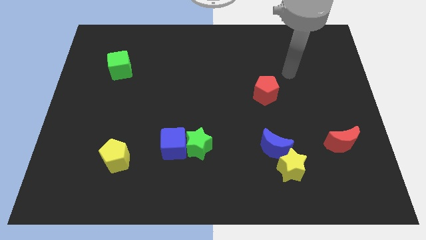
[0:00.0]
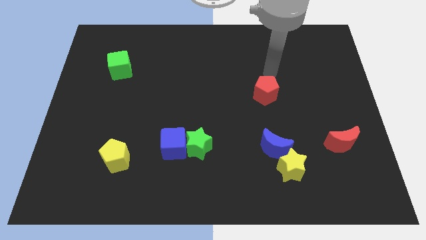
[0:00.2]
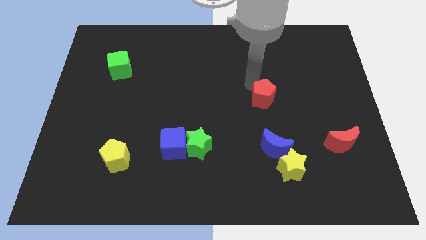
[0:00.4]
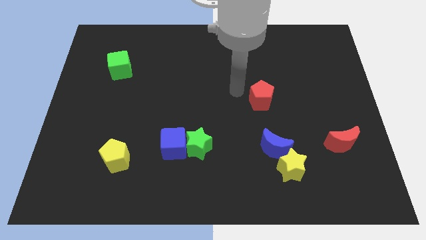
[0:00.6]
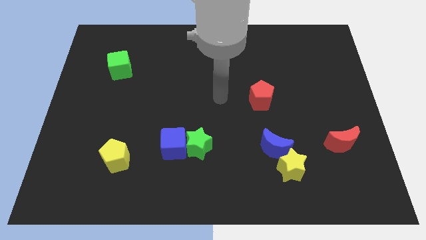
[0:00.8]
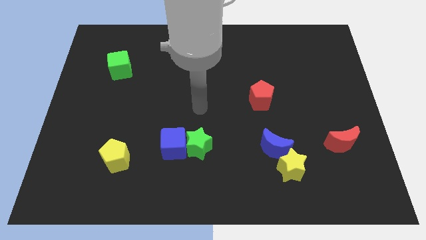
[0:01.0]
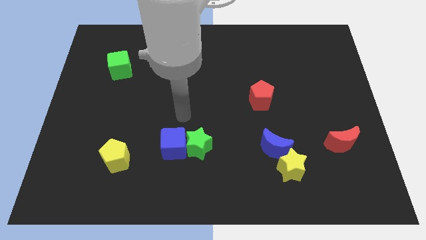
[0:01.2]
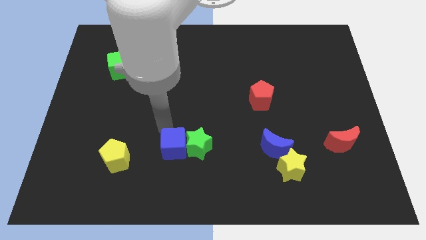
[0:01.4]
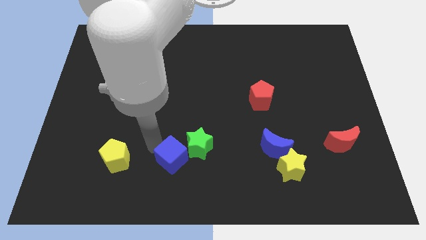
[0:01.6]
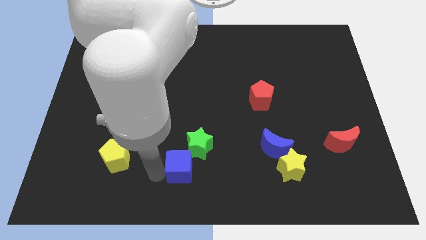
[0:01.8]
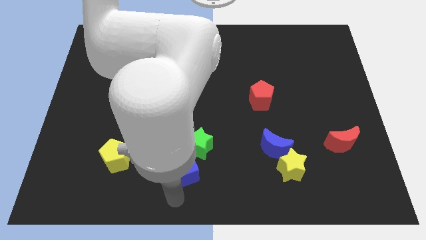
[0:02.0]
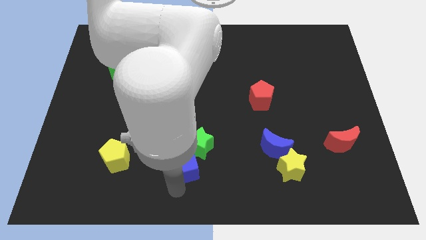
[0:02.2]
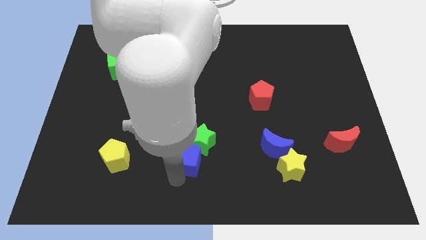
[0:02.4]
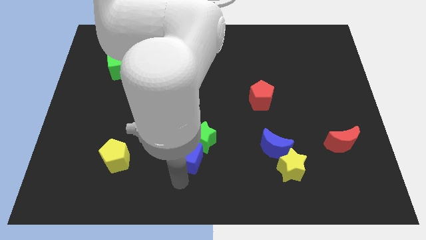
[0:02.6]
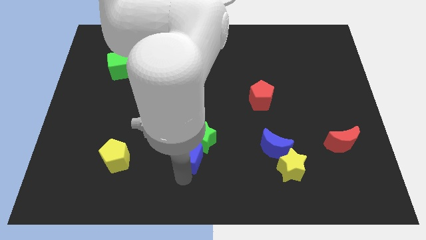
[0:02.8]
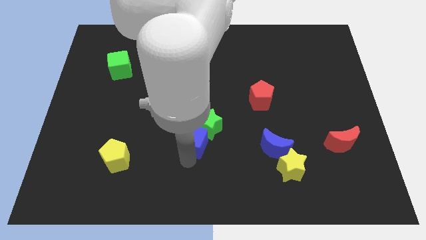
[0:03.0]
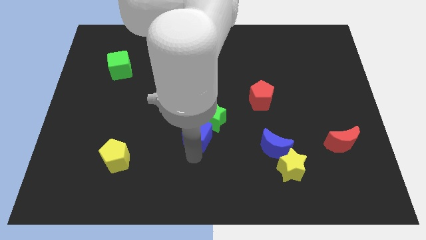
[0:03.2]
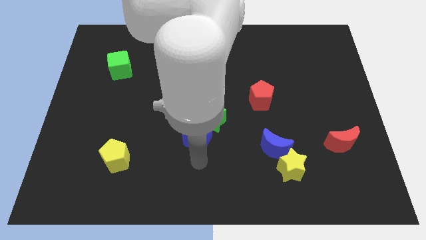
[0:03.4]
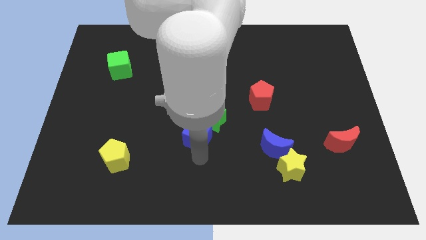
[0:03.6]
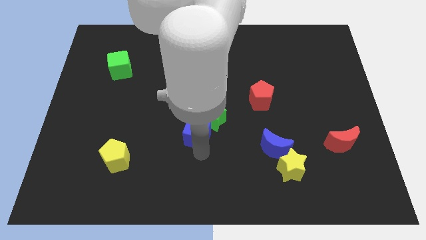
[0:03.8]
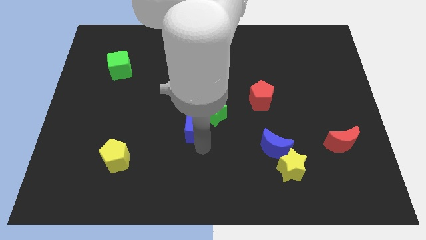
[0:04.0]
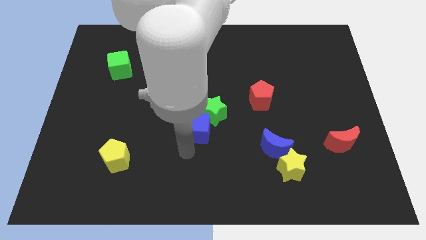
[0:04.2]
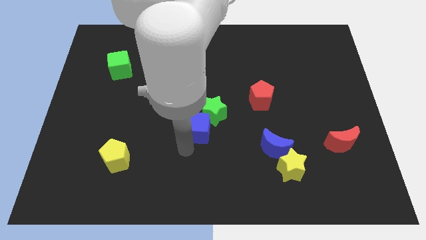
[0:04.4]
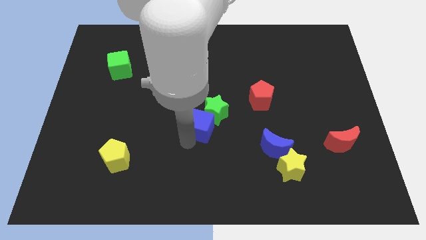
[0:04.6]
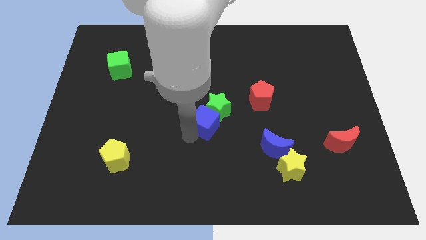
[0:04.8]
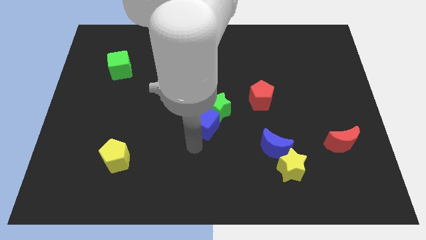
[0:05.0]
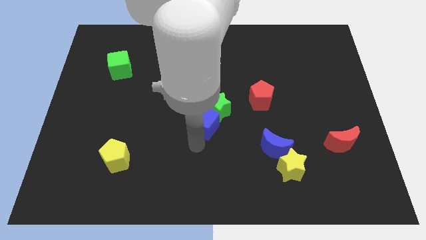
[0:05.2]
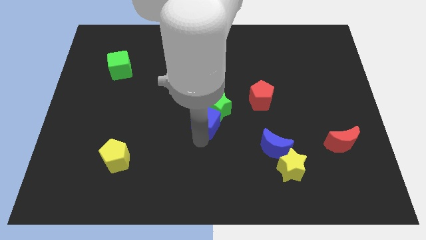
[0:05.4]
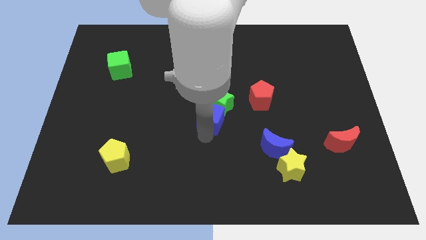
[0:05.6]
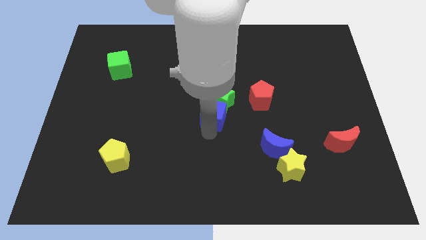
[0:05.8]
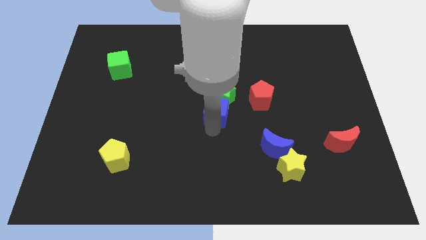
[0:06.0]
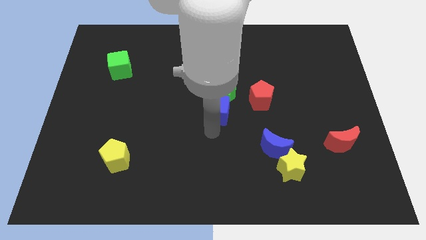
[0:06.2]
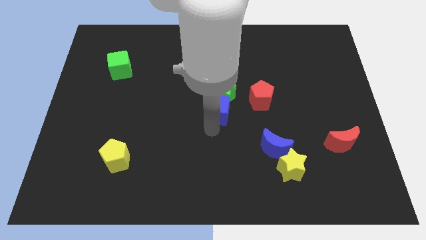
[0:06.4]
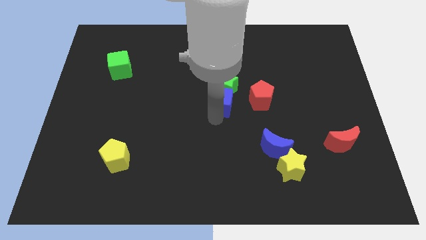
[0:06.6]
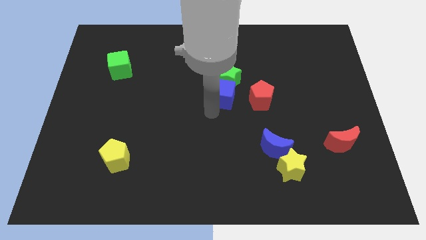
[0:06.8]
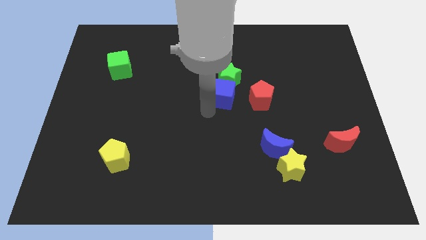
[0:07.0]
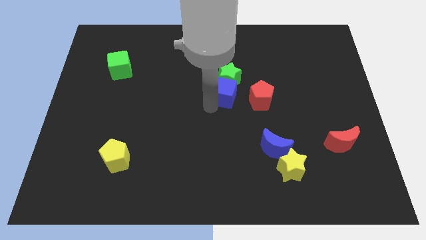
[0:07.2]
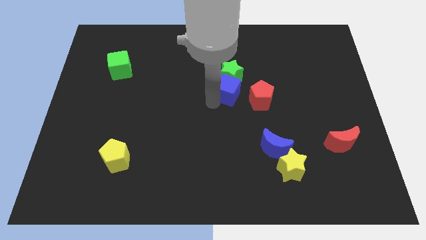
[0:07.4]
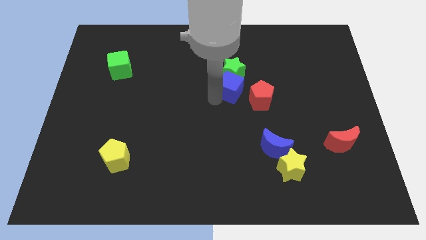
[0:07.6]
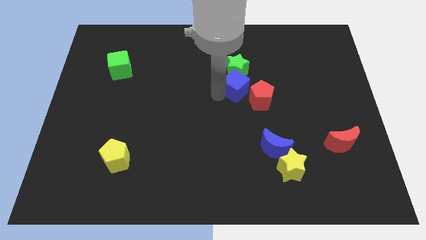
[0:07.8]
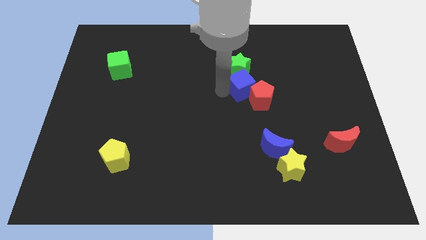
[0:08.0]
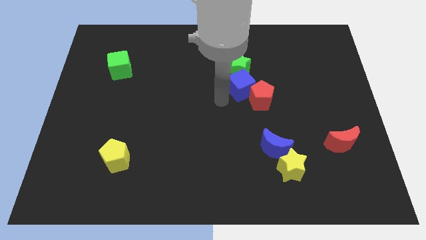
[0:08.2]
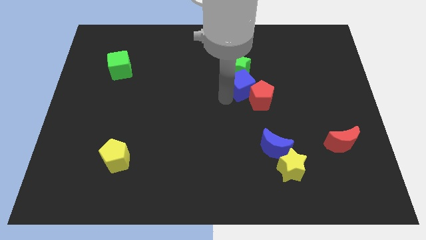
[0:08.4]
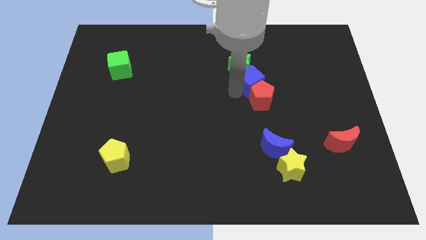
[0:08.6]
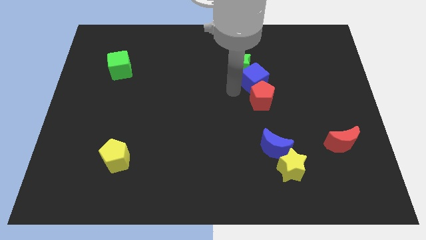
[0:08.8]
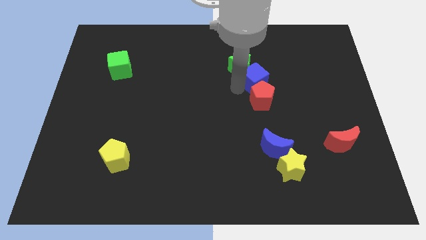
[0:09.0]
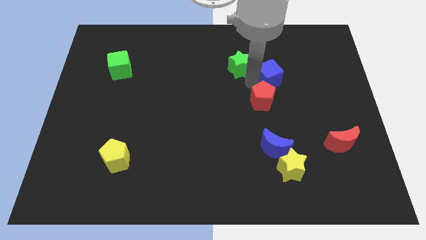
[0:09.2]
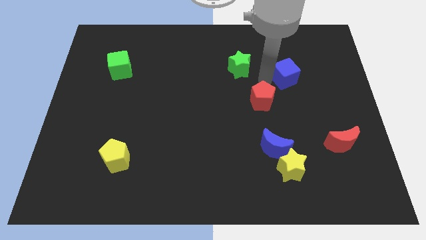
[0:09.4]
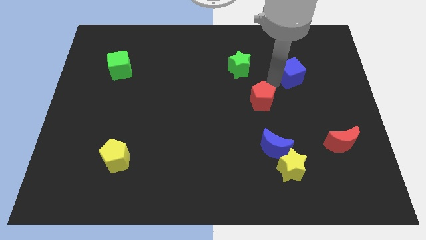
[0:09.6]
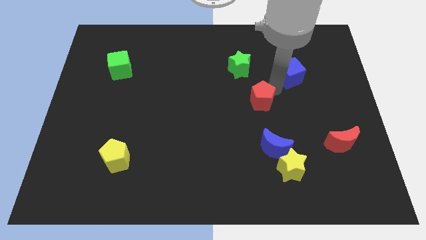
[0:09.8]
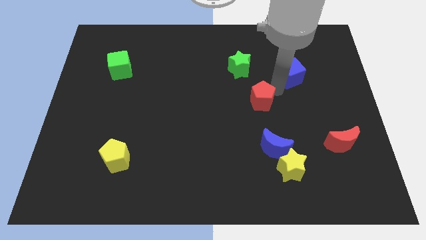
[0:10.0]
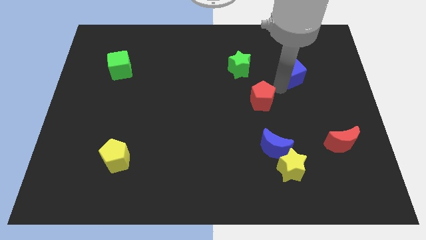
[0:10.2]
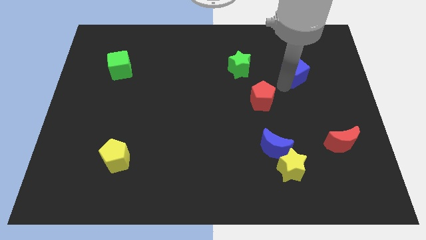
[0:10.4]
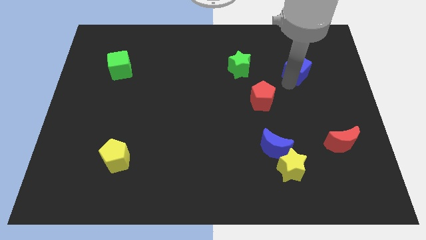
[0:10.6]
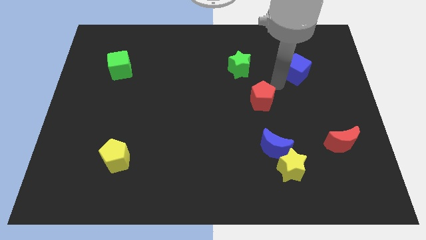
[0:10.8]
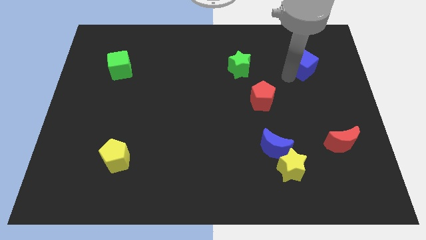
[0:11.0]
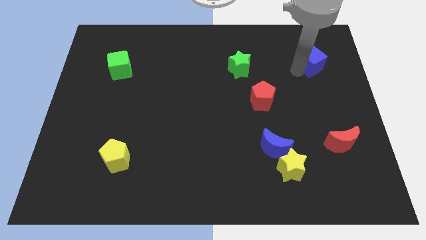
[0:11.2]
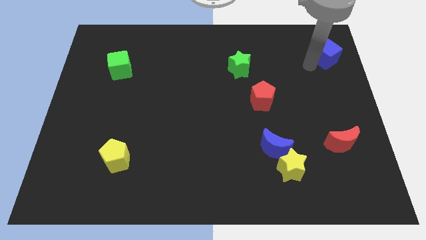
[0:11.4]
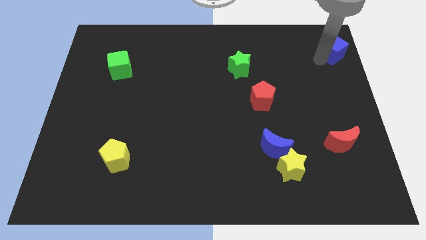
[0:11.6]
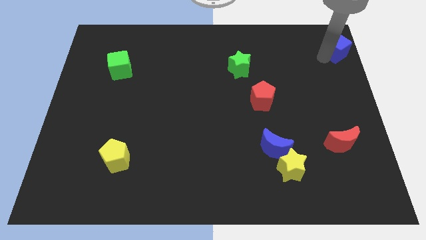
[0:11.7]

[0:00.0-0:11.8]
move the blue cube to the top right corner
